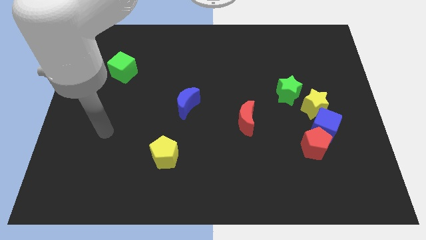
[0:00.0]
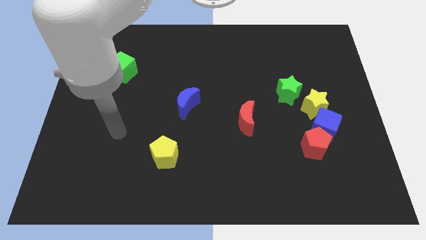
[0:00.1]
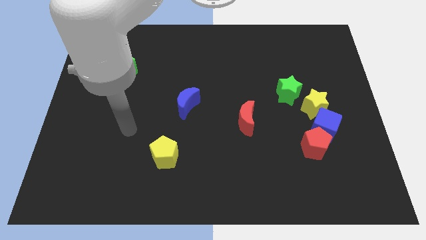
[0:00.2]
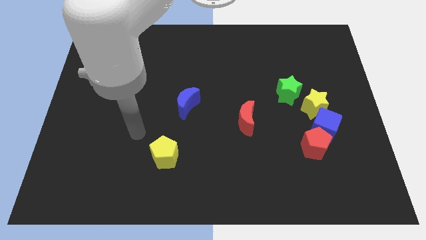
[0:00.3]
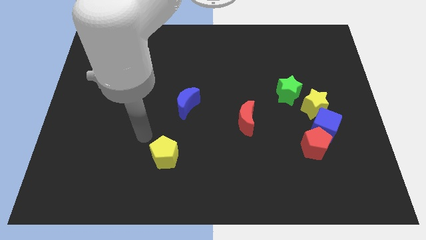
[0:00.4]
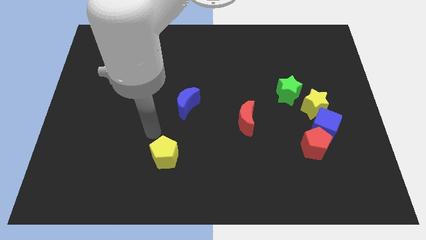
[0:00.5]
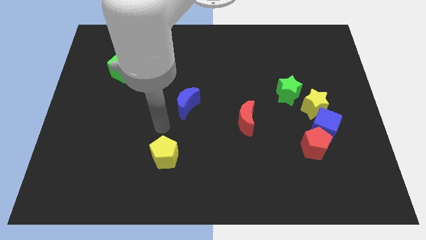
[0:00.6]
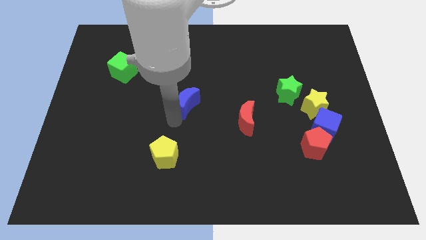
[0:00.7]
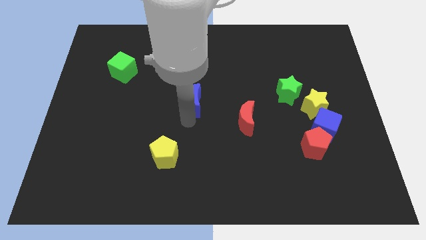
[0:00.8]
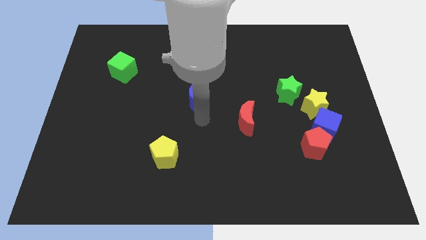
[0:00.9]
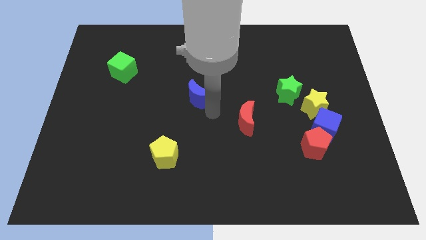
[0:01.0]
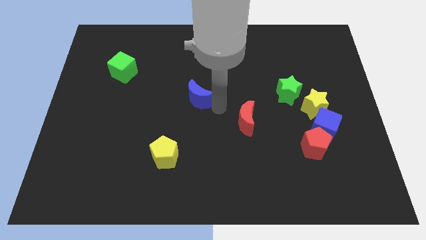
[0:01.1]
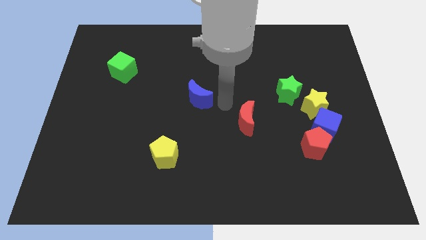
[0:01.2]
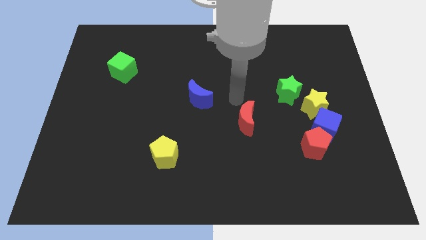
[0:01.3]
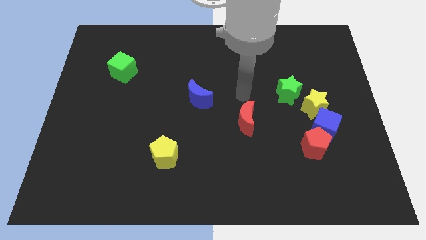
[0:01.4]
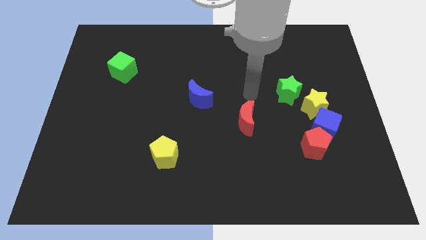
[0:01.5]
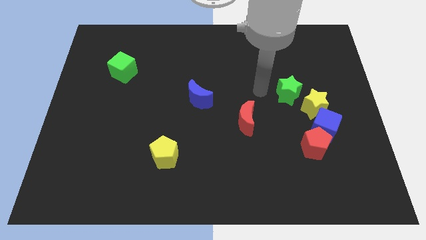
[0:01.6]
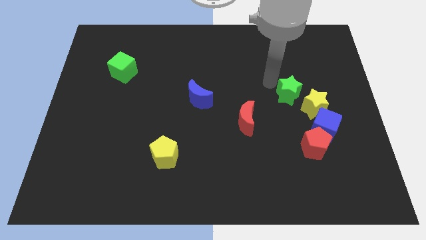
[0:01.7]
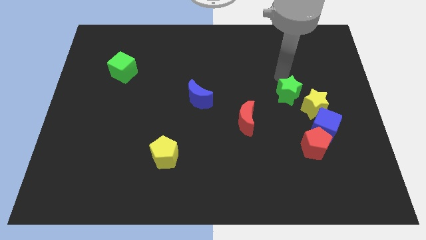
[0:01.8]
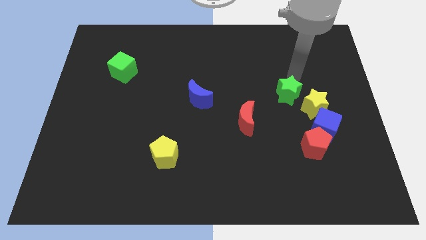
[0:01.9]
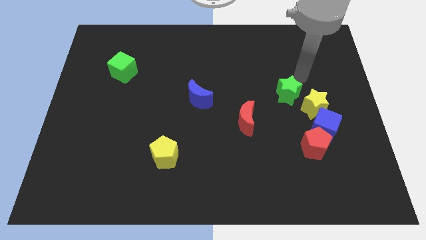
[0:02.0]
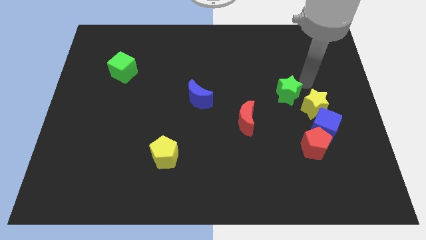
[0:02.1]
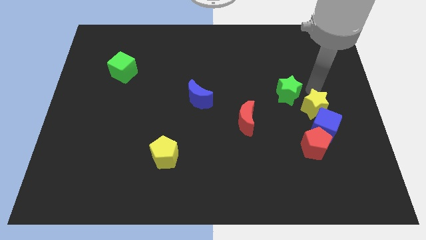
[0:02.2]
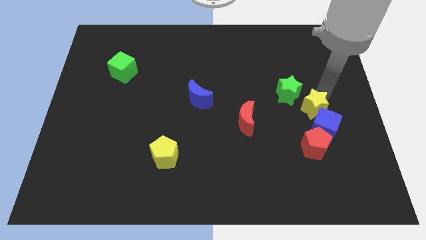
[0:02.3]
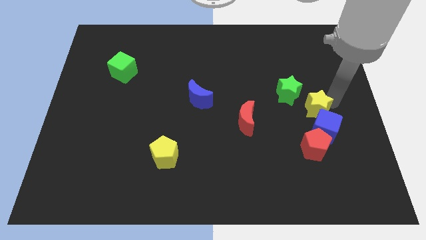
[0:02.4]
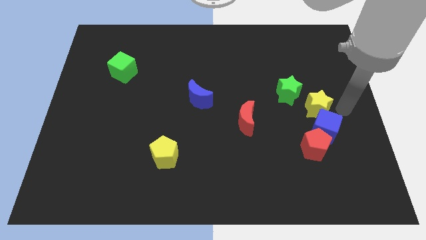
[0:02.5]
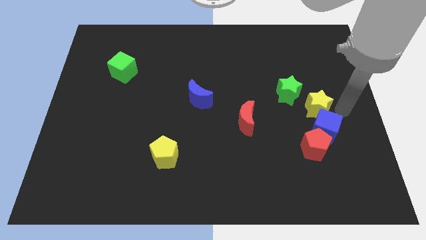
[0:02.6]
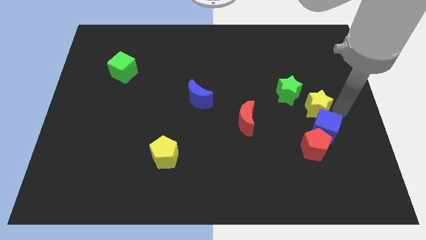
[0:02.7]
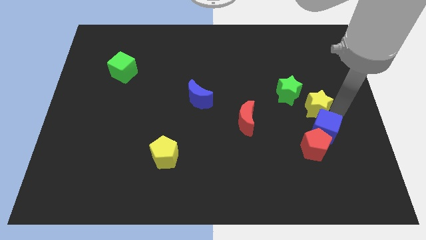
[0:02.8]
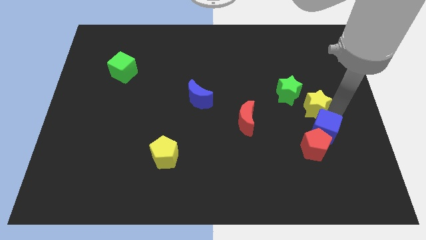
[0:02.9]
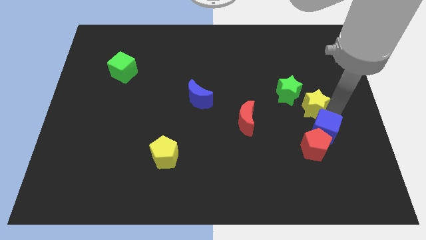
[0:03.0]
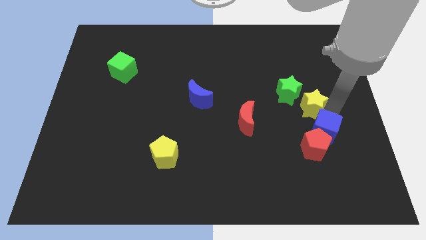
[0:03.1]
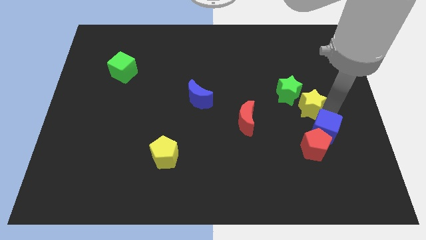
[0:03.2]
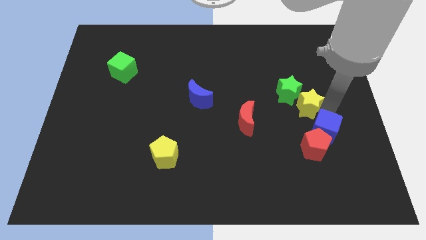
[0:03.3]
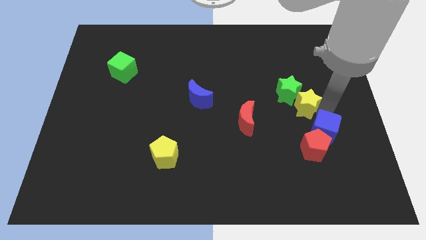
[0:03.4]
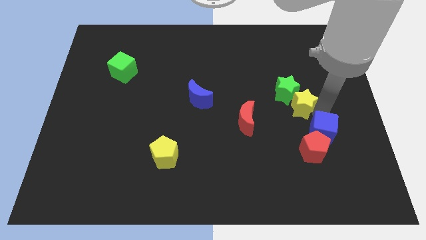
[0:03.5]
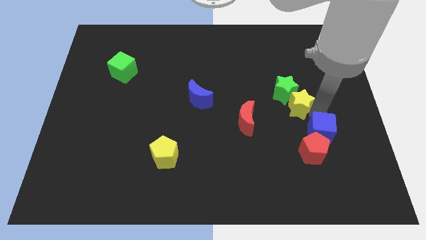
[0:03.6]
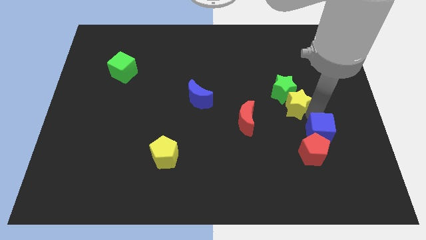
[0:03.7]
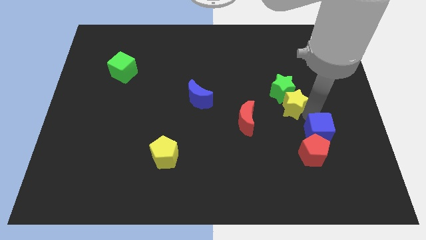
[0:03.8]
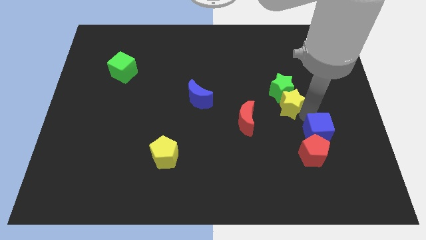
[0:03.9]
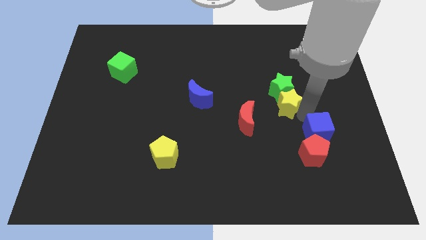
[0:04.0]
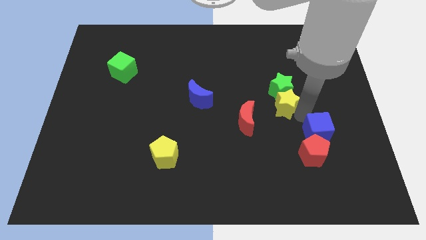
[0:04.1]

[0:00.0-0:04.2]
push the yellow star a bit left

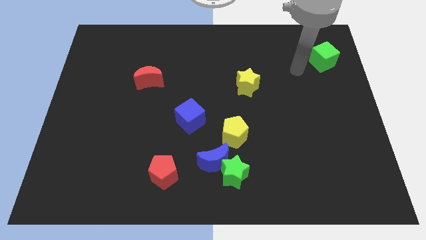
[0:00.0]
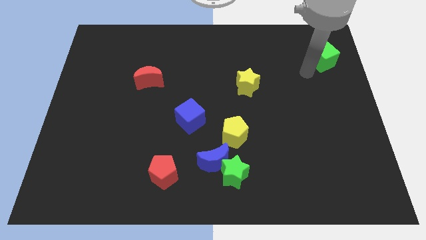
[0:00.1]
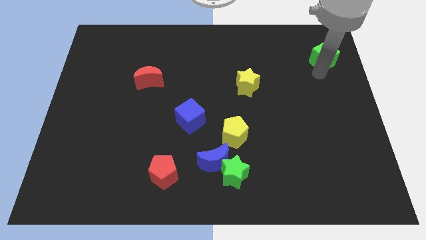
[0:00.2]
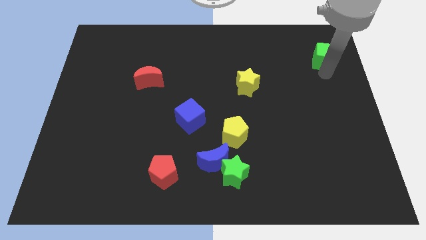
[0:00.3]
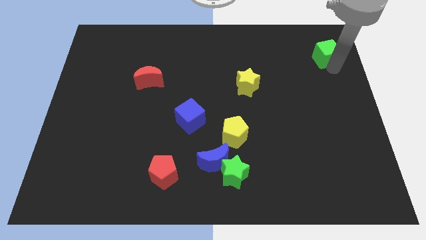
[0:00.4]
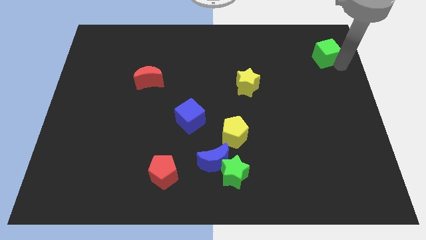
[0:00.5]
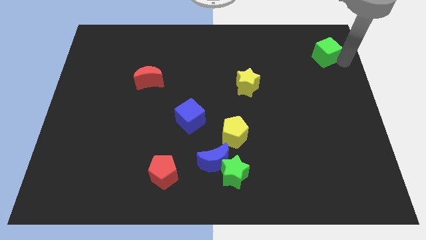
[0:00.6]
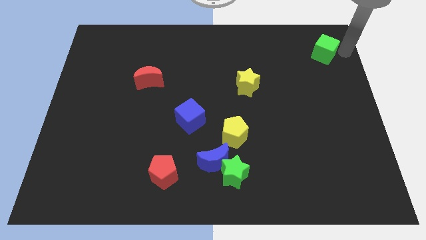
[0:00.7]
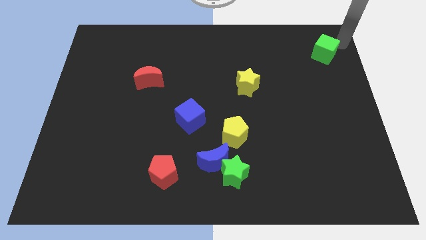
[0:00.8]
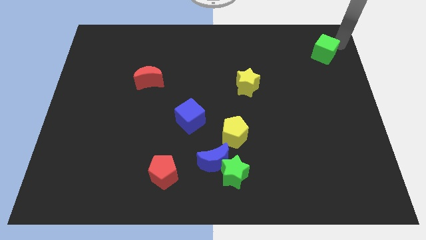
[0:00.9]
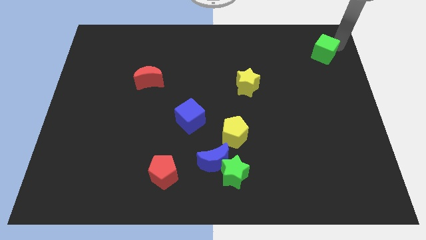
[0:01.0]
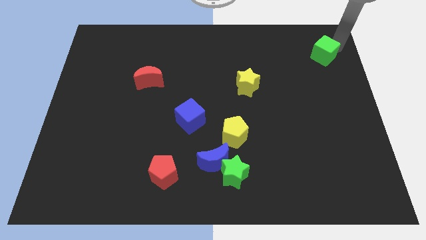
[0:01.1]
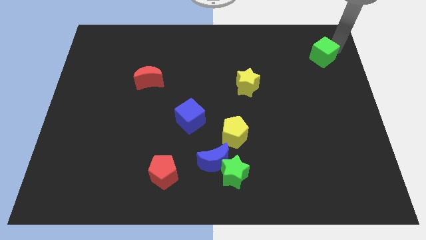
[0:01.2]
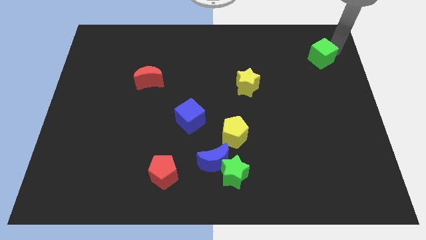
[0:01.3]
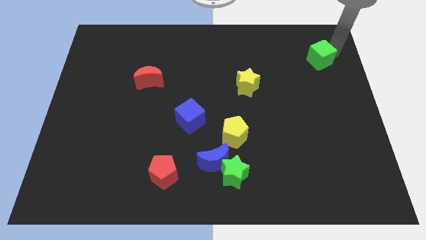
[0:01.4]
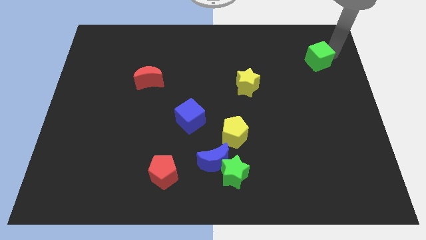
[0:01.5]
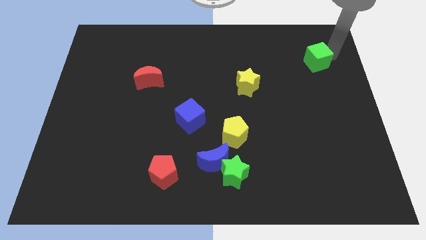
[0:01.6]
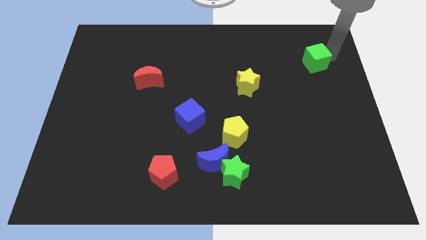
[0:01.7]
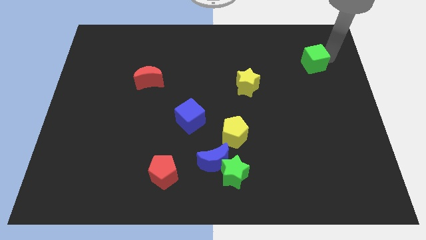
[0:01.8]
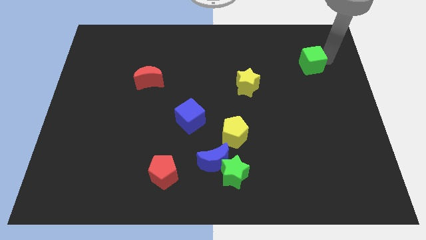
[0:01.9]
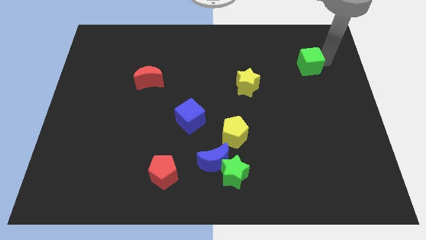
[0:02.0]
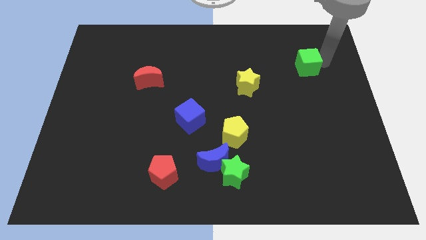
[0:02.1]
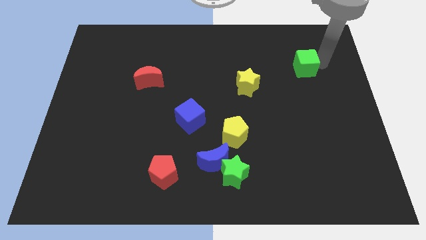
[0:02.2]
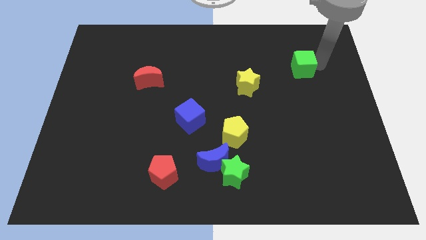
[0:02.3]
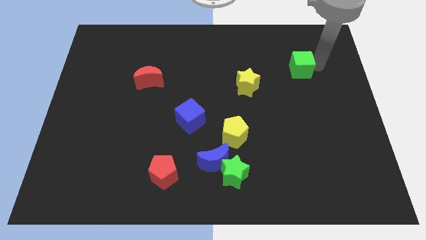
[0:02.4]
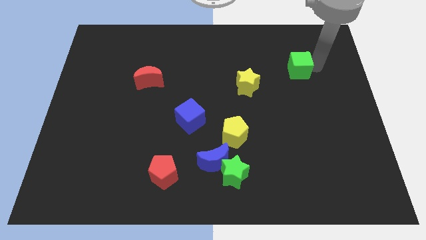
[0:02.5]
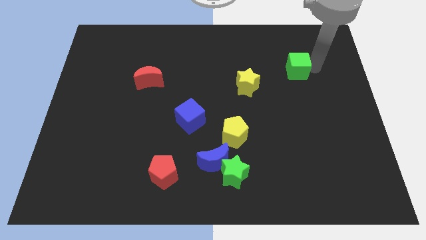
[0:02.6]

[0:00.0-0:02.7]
slide the green cube to the left a little bit

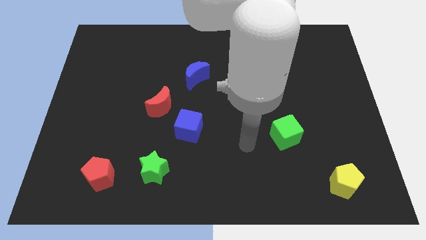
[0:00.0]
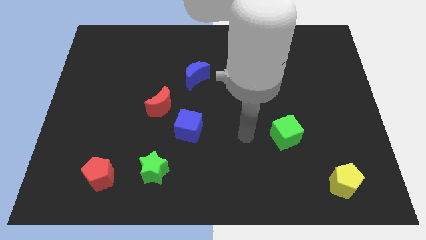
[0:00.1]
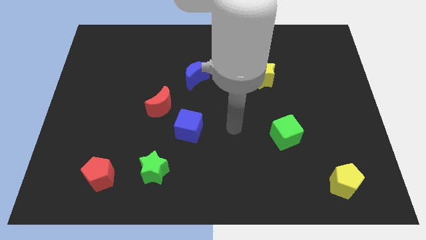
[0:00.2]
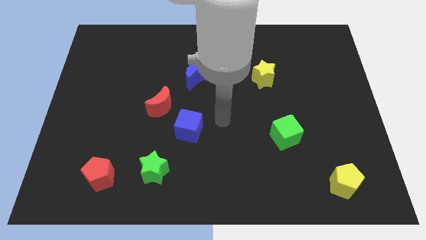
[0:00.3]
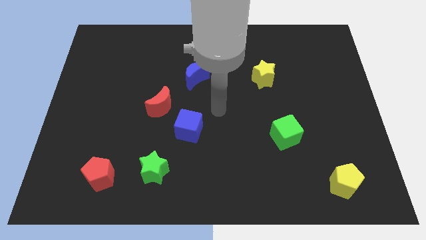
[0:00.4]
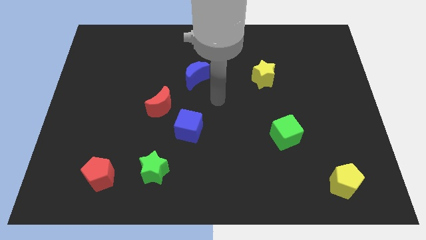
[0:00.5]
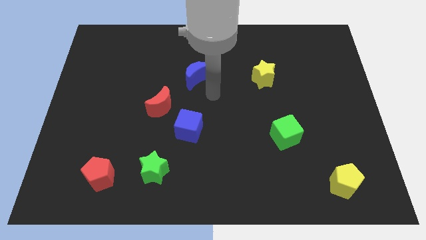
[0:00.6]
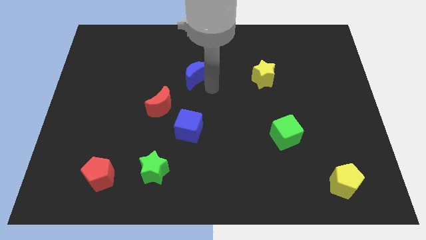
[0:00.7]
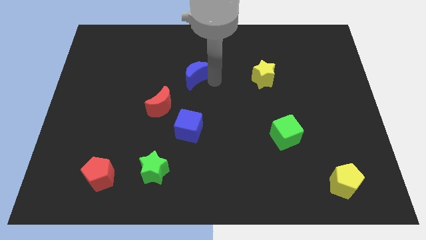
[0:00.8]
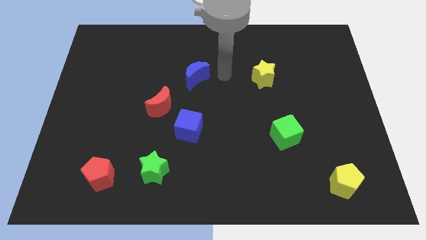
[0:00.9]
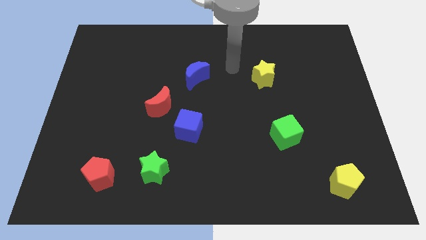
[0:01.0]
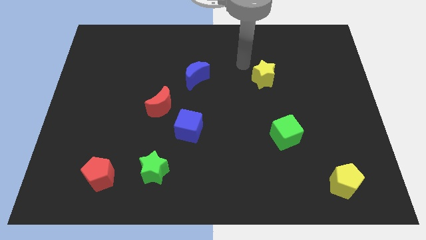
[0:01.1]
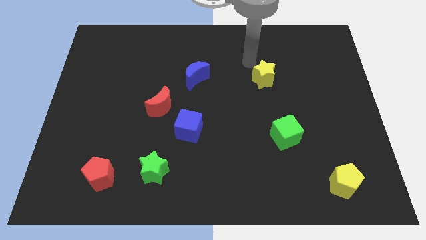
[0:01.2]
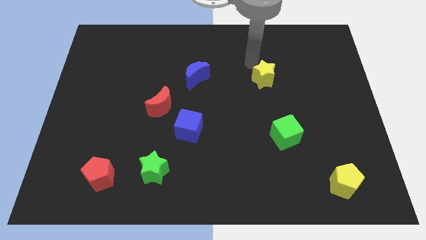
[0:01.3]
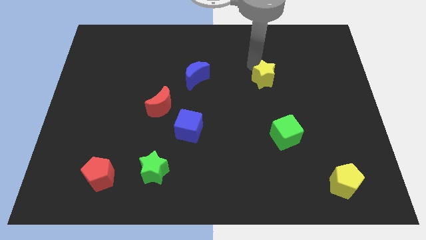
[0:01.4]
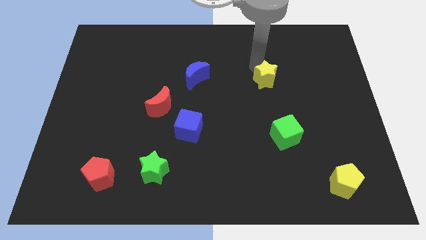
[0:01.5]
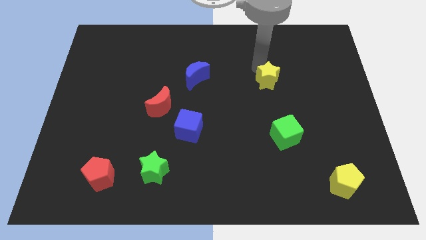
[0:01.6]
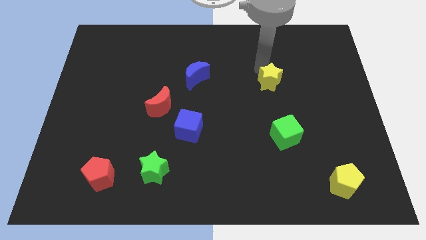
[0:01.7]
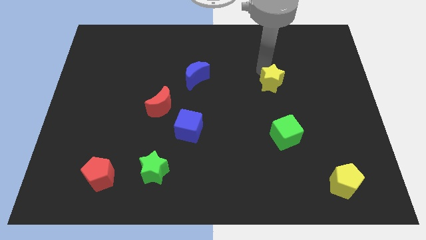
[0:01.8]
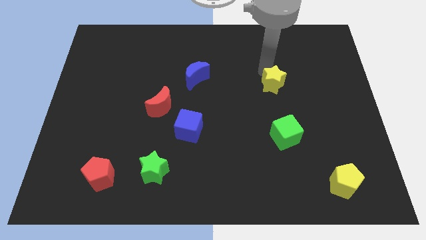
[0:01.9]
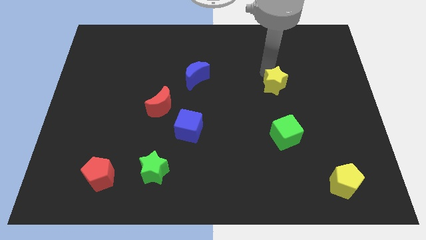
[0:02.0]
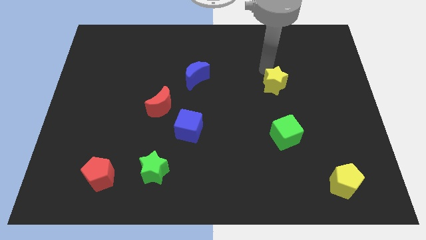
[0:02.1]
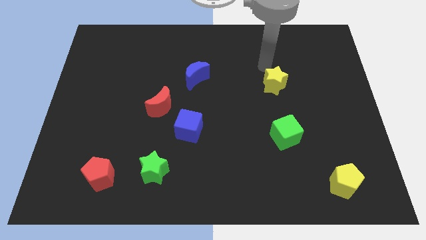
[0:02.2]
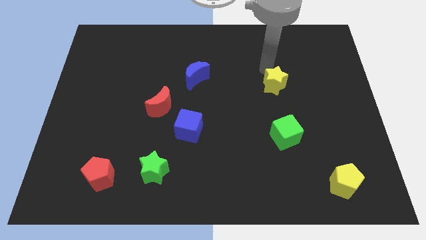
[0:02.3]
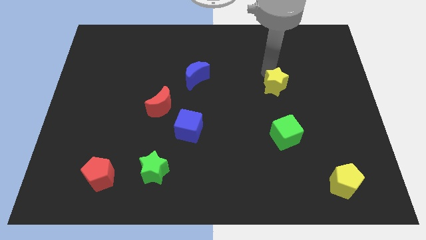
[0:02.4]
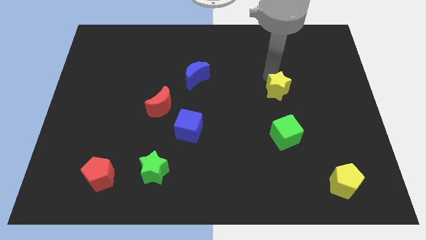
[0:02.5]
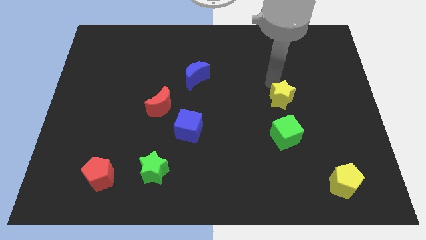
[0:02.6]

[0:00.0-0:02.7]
slightly move the yellow star down and right
